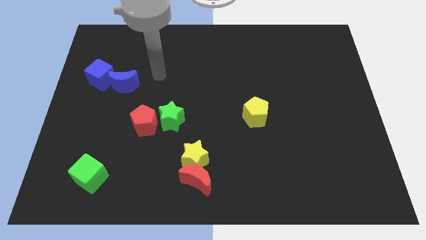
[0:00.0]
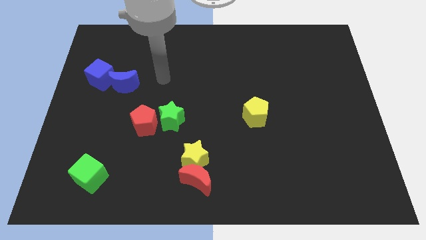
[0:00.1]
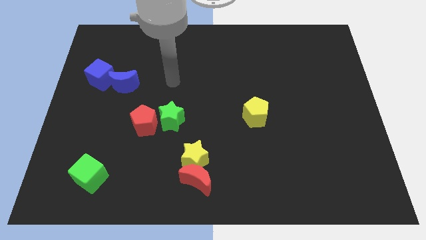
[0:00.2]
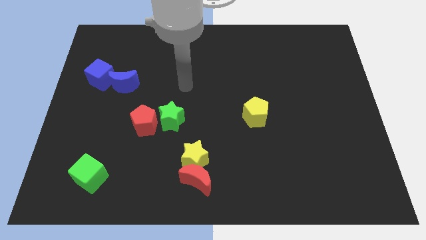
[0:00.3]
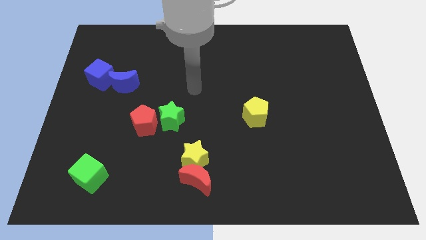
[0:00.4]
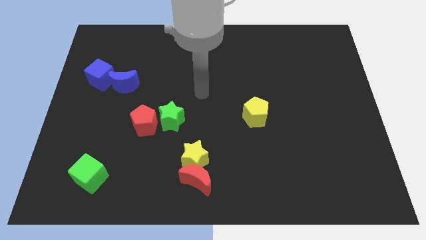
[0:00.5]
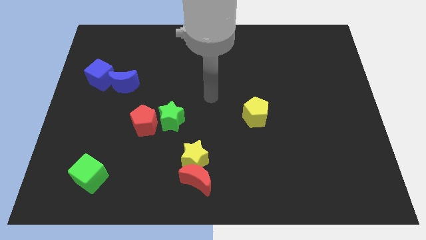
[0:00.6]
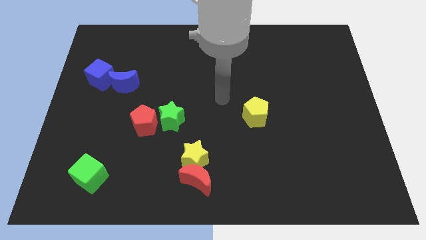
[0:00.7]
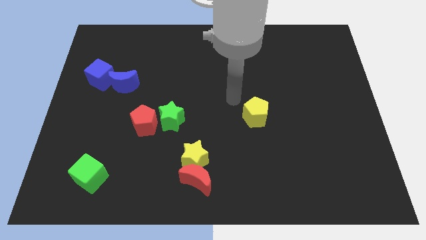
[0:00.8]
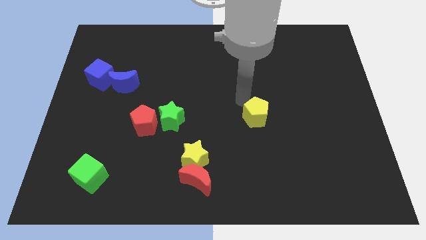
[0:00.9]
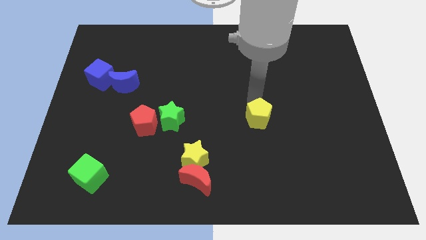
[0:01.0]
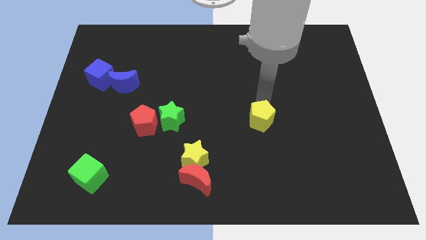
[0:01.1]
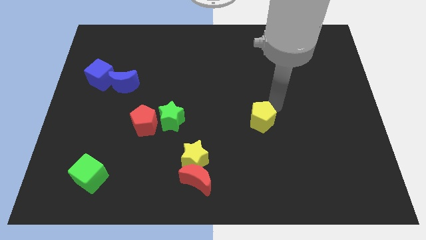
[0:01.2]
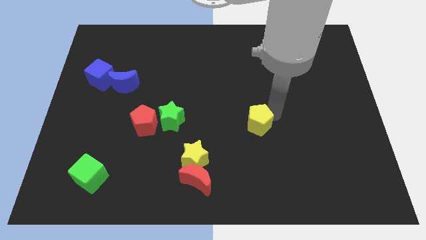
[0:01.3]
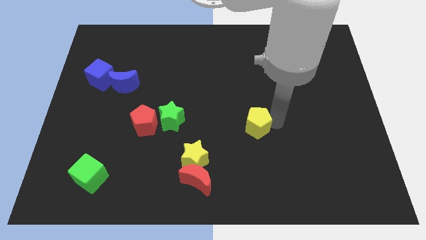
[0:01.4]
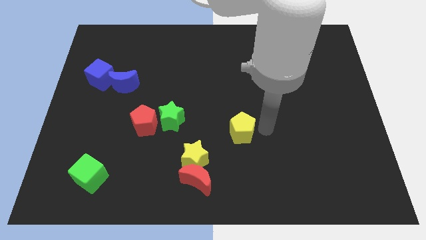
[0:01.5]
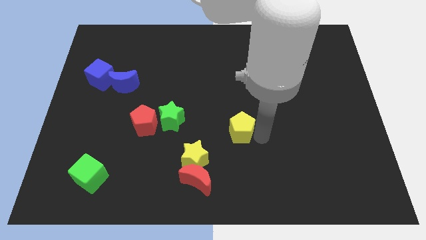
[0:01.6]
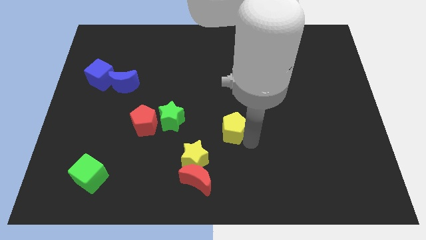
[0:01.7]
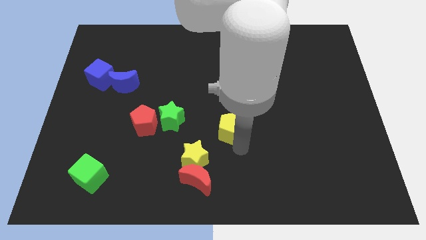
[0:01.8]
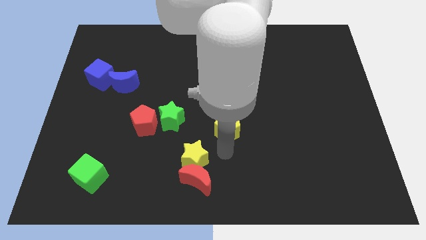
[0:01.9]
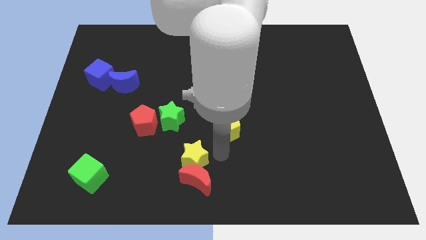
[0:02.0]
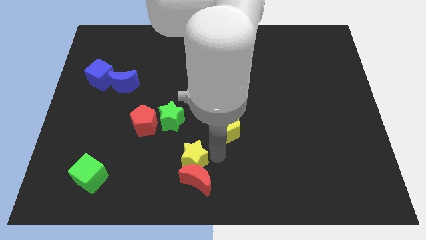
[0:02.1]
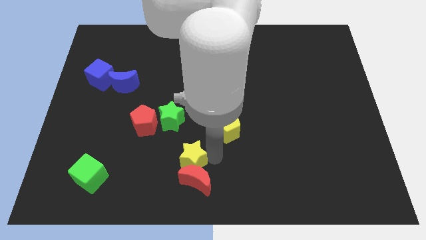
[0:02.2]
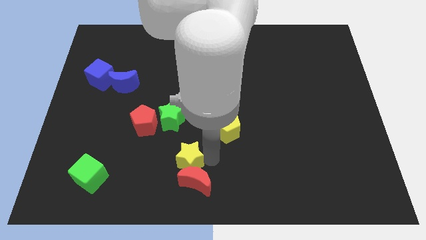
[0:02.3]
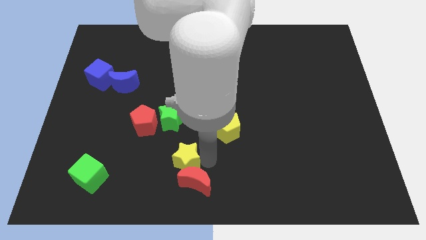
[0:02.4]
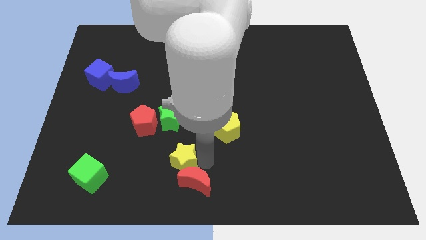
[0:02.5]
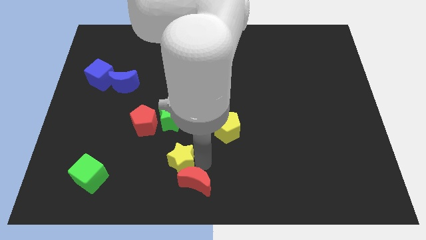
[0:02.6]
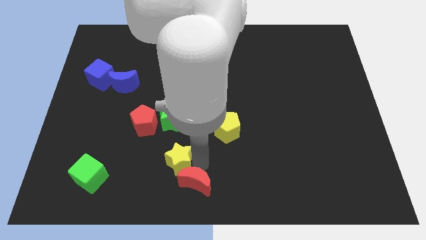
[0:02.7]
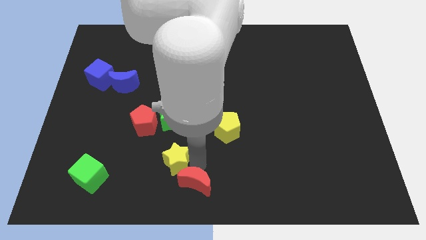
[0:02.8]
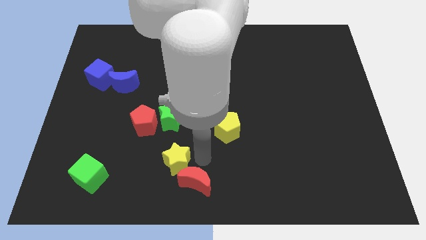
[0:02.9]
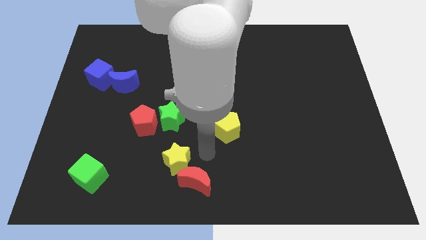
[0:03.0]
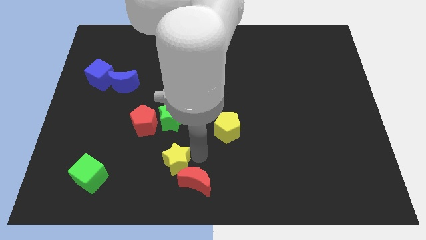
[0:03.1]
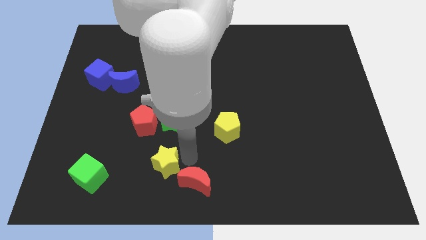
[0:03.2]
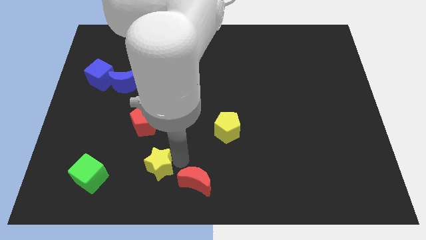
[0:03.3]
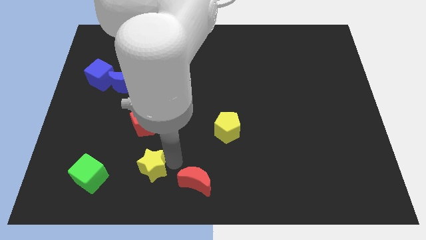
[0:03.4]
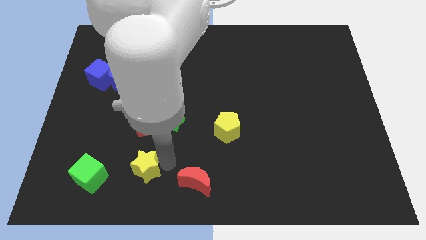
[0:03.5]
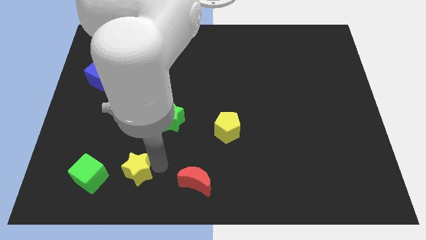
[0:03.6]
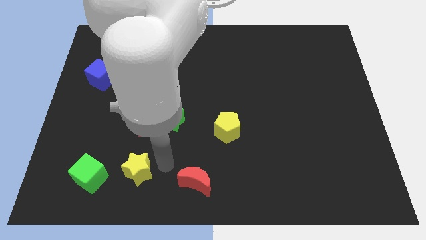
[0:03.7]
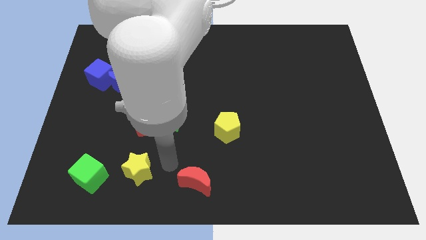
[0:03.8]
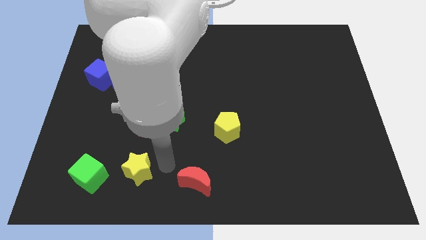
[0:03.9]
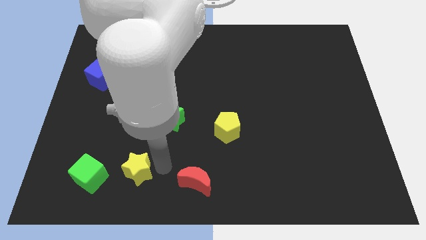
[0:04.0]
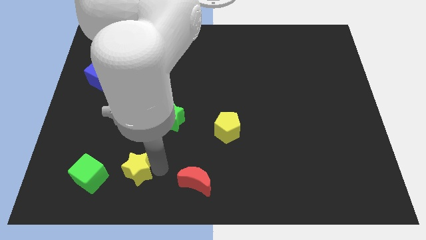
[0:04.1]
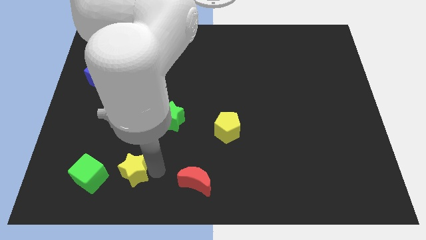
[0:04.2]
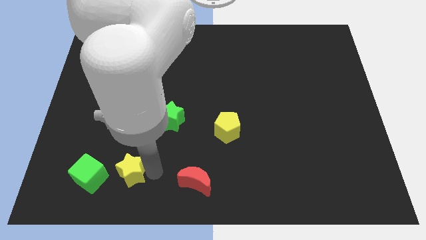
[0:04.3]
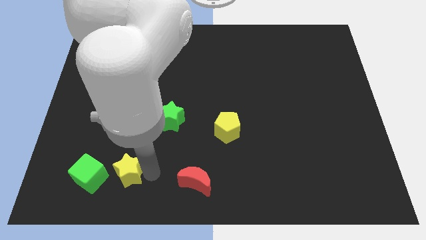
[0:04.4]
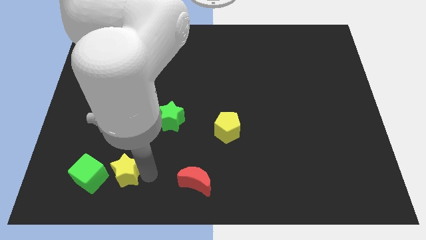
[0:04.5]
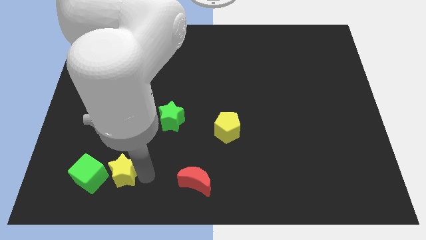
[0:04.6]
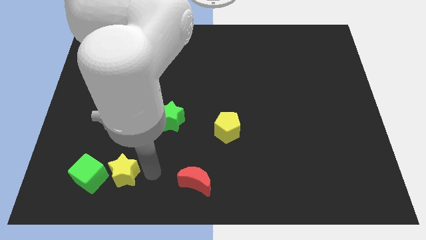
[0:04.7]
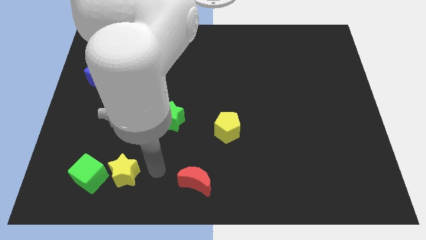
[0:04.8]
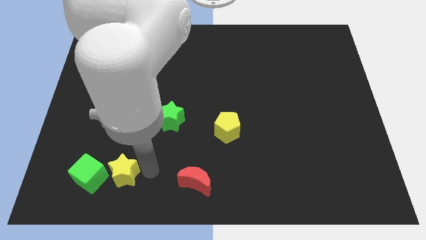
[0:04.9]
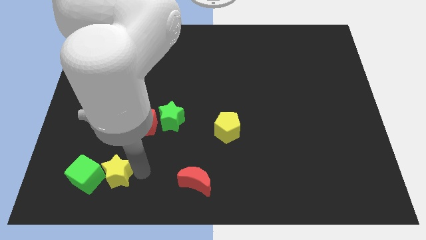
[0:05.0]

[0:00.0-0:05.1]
move the yellow star to the green cube

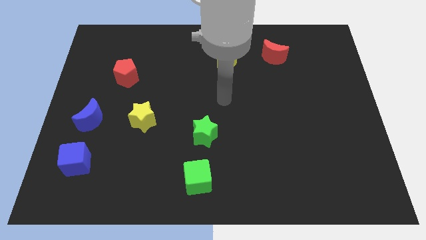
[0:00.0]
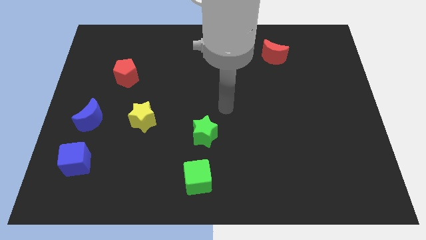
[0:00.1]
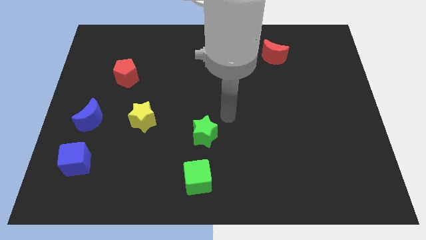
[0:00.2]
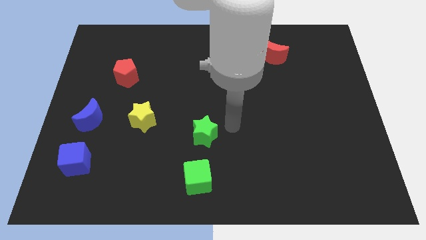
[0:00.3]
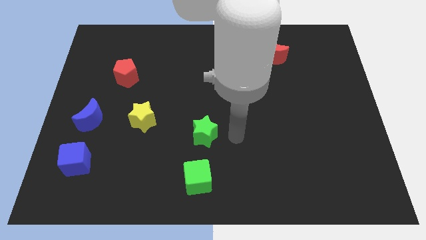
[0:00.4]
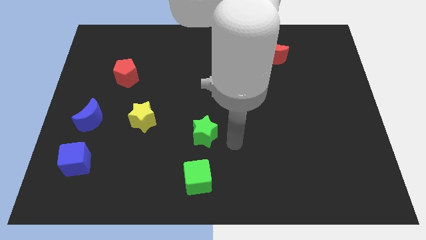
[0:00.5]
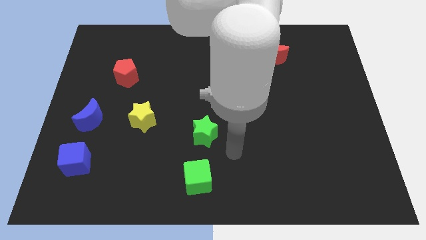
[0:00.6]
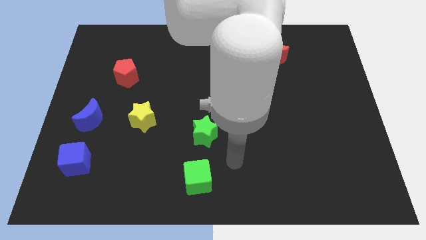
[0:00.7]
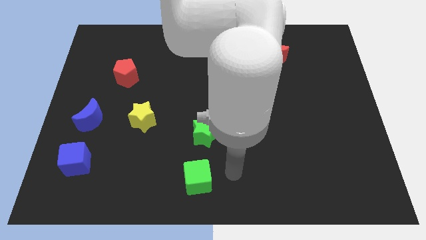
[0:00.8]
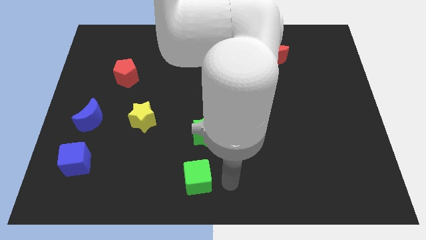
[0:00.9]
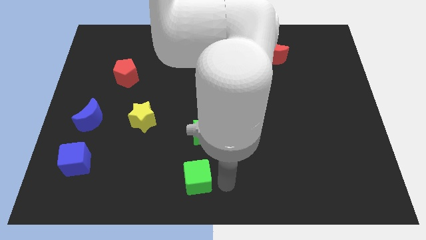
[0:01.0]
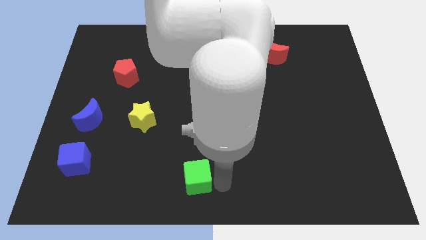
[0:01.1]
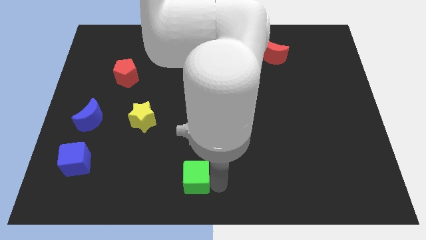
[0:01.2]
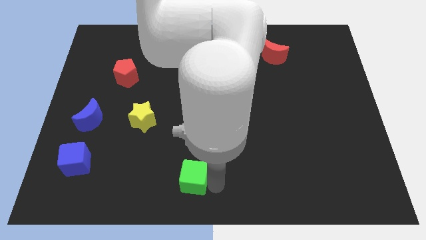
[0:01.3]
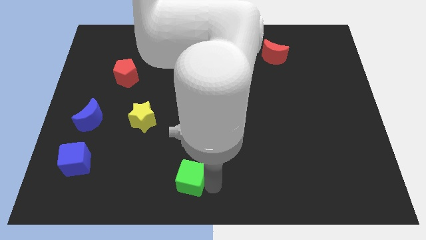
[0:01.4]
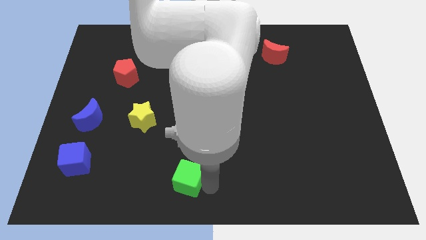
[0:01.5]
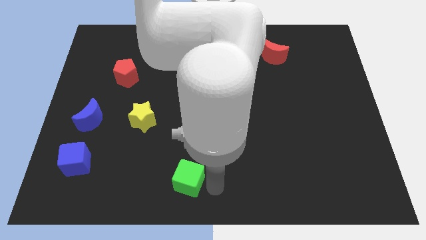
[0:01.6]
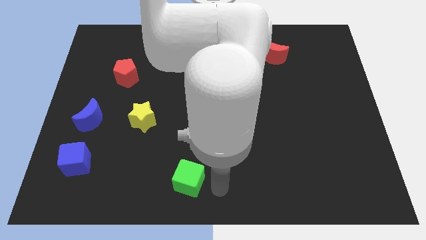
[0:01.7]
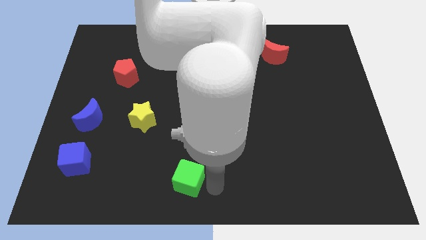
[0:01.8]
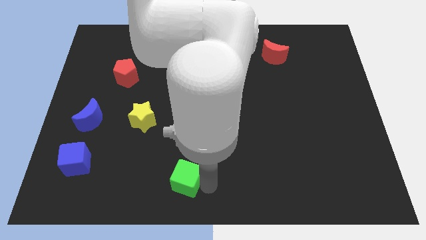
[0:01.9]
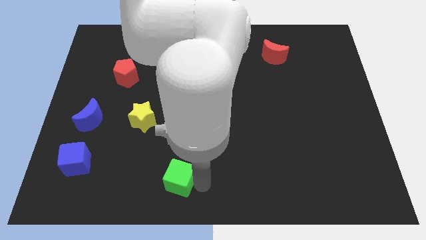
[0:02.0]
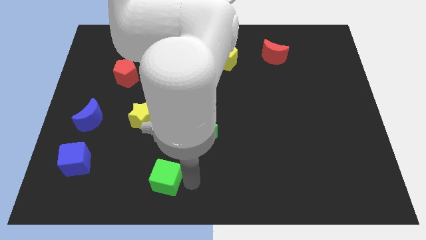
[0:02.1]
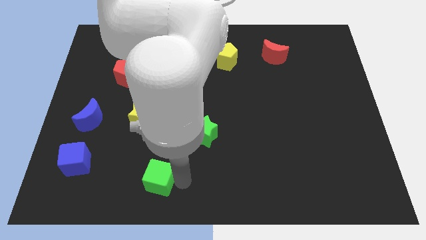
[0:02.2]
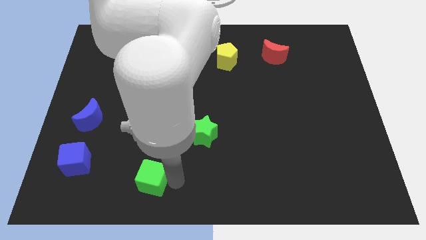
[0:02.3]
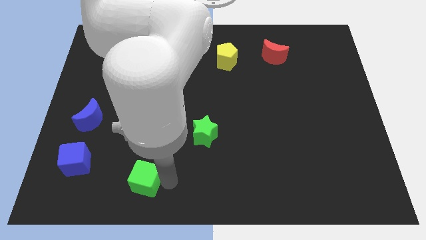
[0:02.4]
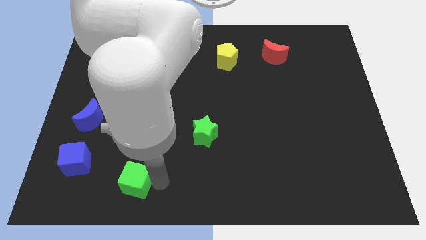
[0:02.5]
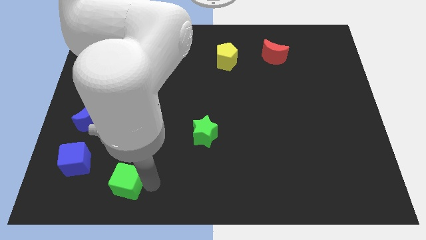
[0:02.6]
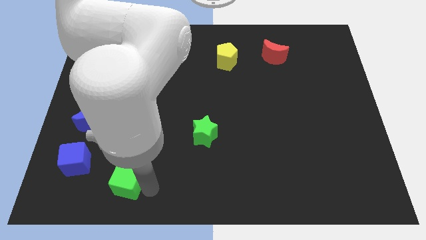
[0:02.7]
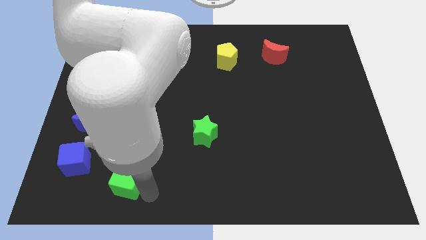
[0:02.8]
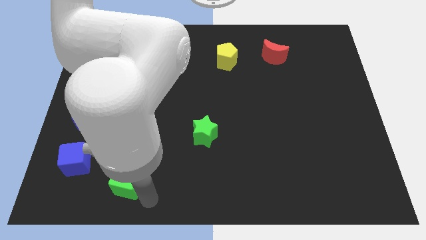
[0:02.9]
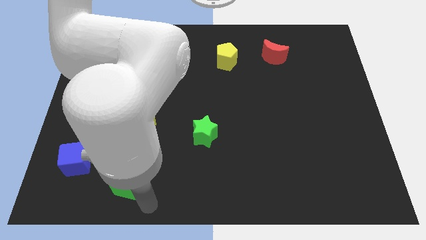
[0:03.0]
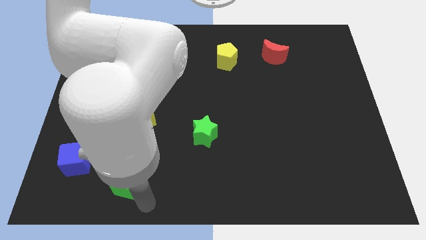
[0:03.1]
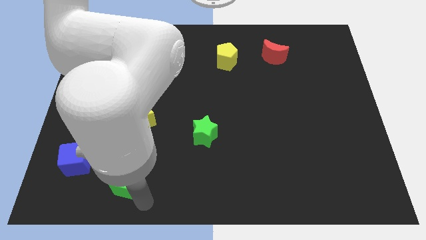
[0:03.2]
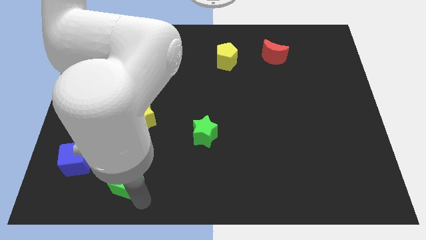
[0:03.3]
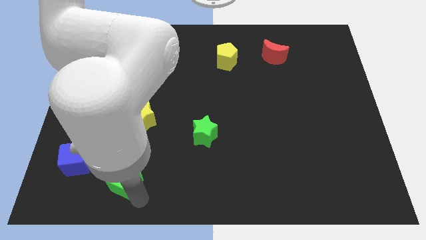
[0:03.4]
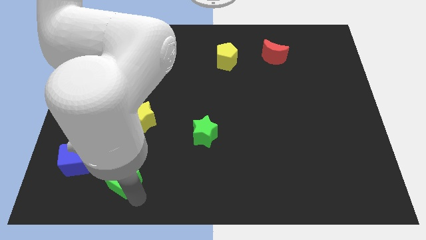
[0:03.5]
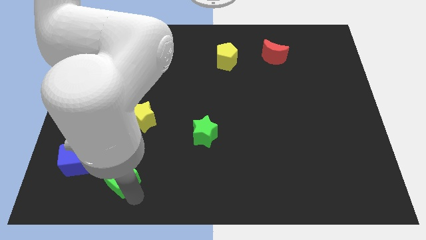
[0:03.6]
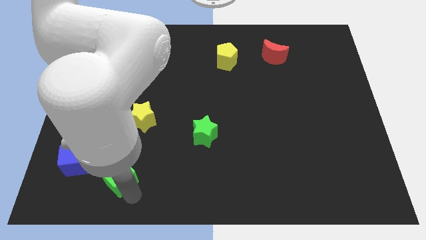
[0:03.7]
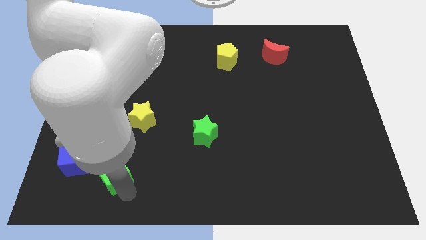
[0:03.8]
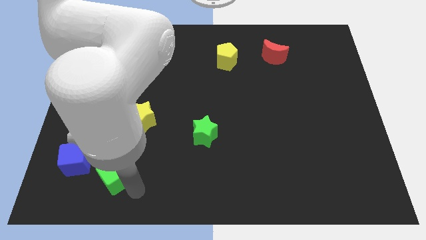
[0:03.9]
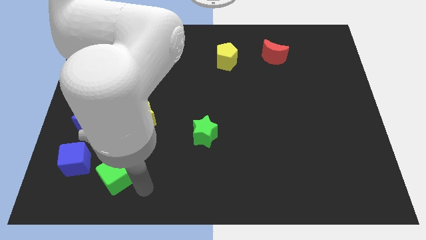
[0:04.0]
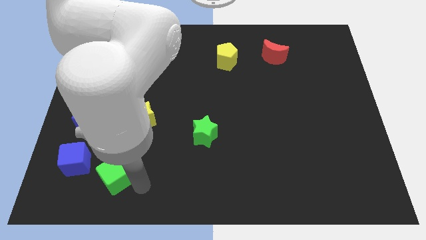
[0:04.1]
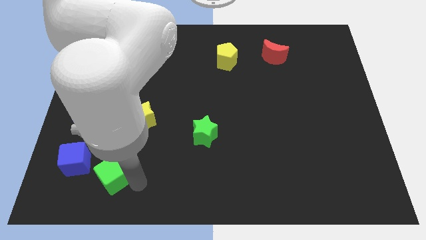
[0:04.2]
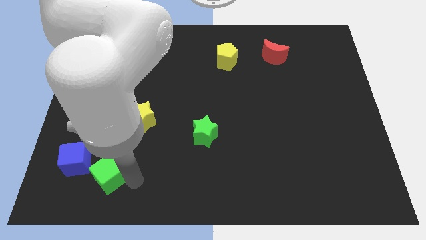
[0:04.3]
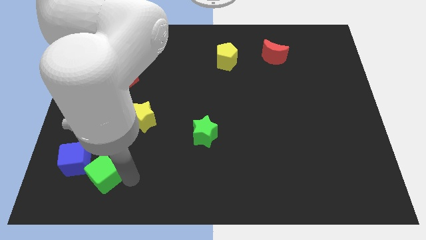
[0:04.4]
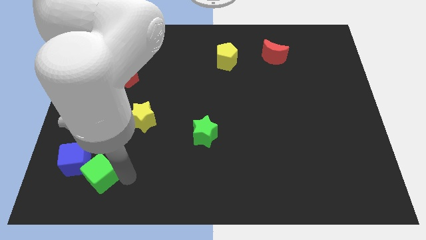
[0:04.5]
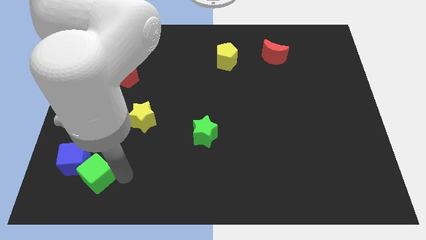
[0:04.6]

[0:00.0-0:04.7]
slide the green cube to the blue cube
